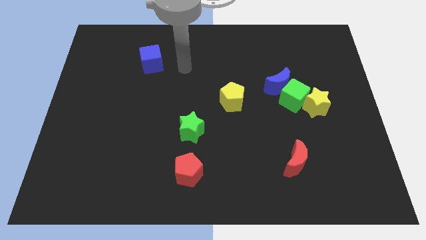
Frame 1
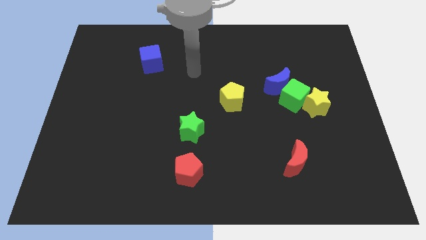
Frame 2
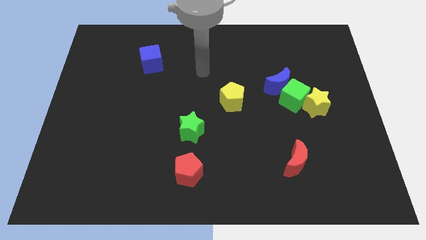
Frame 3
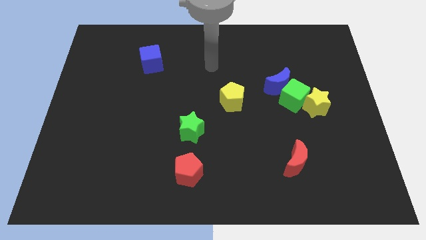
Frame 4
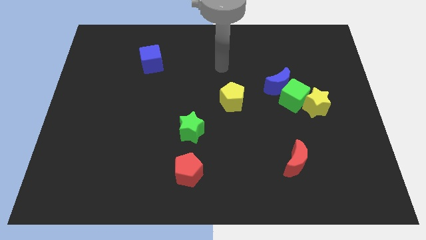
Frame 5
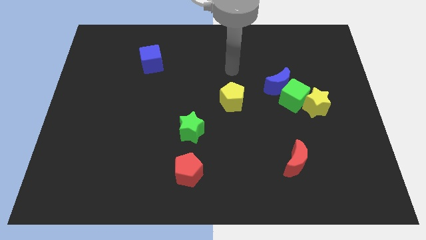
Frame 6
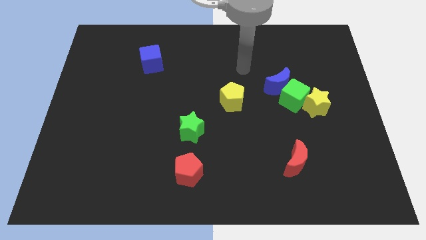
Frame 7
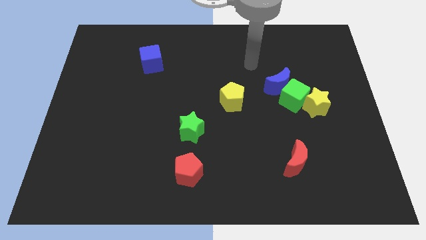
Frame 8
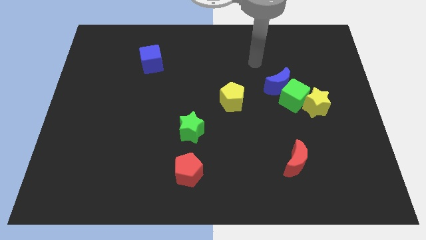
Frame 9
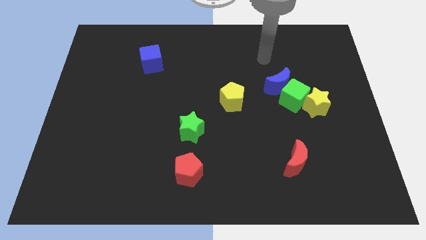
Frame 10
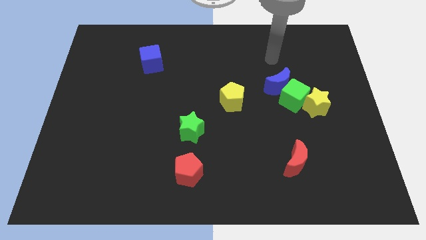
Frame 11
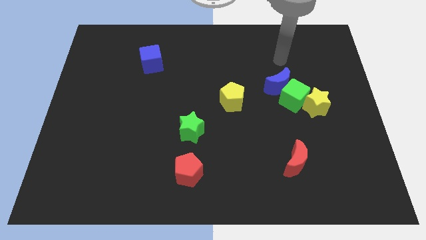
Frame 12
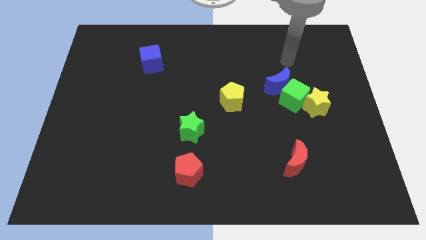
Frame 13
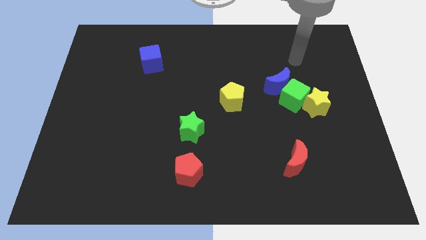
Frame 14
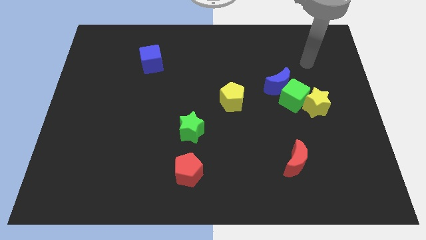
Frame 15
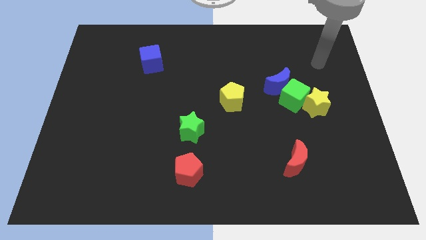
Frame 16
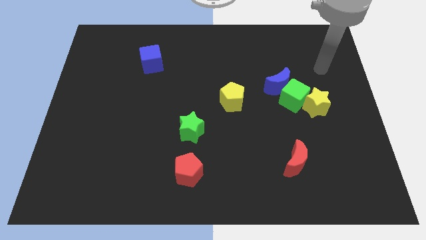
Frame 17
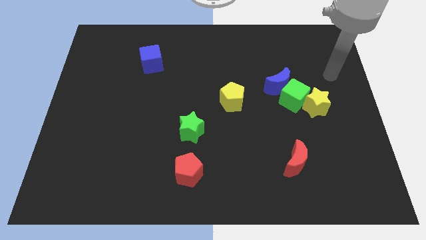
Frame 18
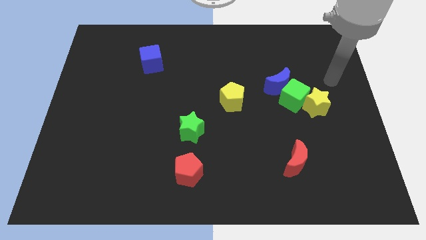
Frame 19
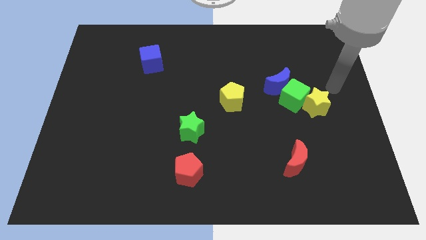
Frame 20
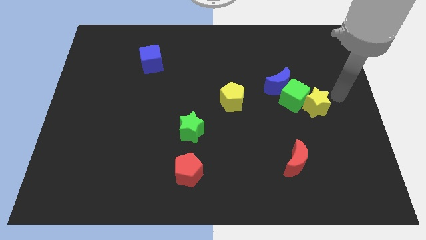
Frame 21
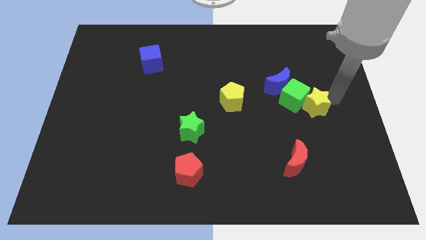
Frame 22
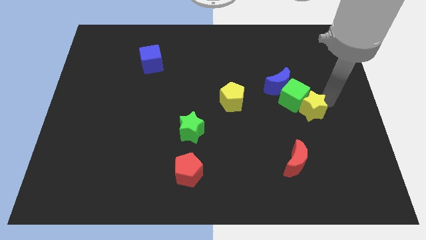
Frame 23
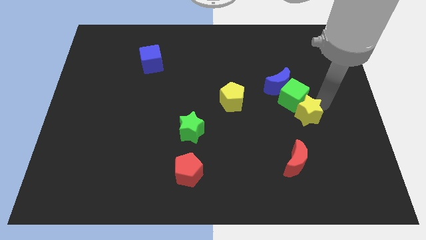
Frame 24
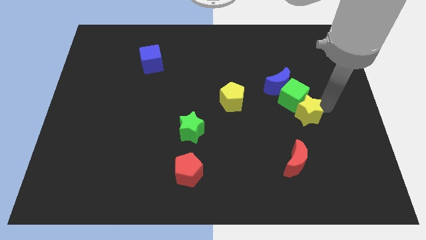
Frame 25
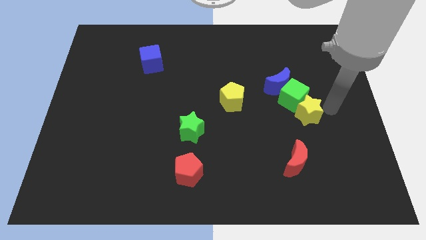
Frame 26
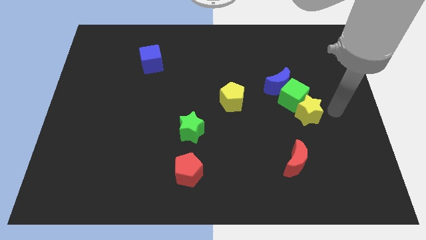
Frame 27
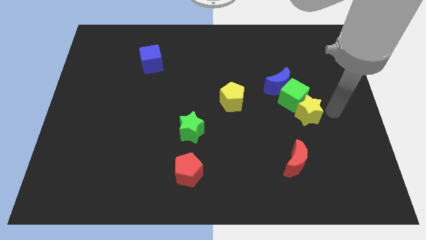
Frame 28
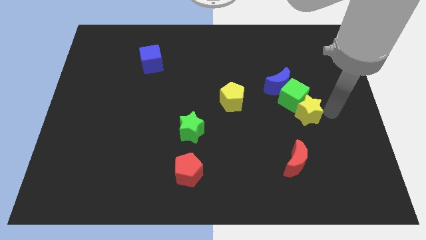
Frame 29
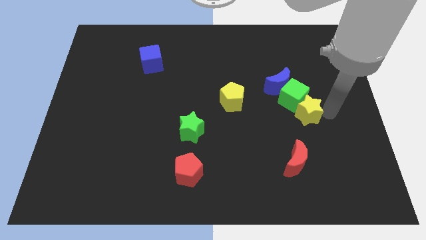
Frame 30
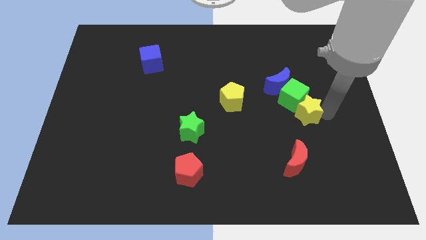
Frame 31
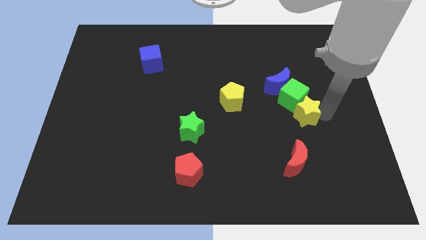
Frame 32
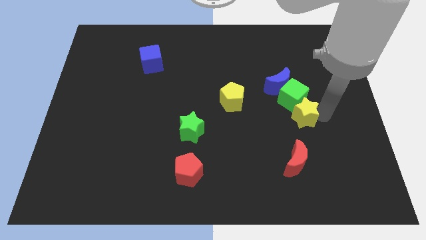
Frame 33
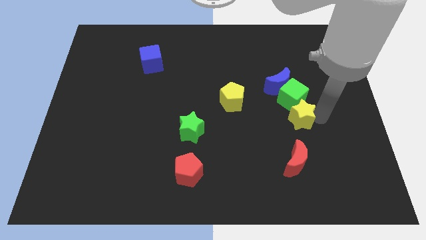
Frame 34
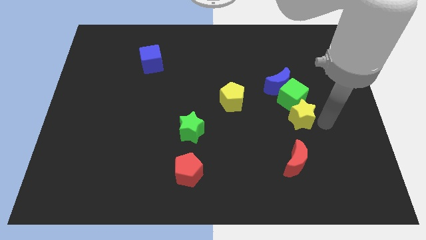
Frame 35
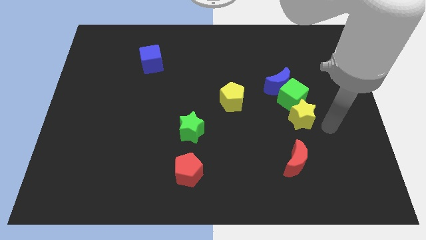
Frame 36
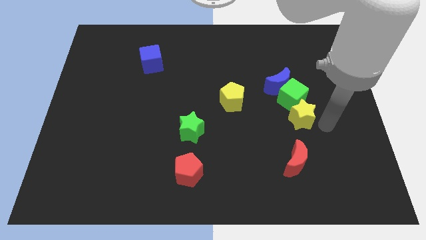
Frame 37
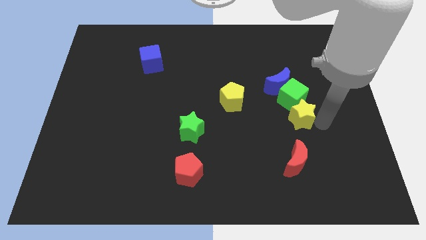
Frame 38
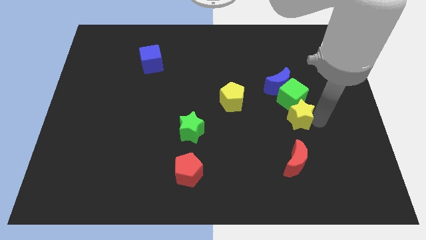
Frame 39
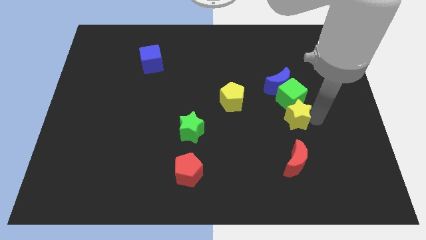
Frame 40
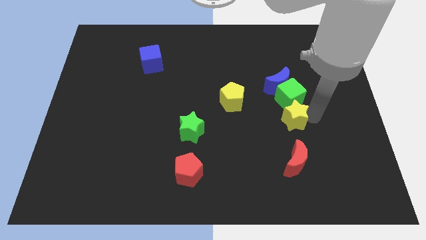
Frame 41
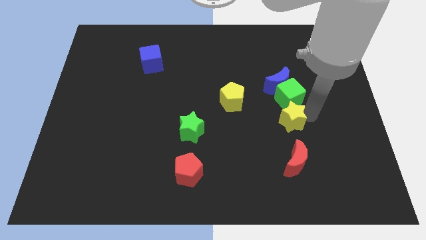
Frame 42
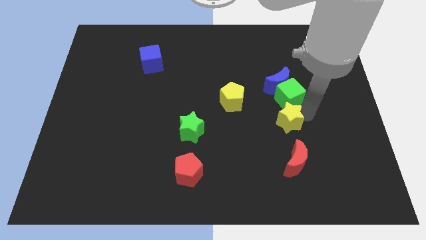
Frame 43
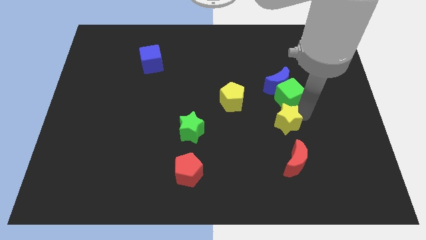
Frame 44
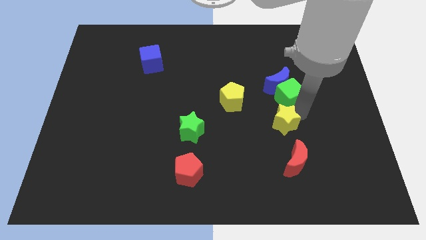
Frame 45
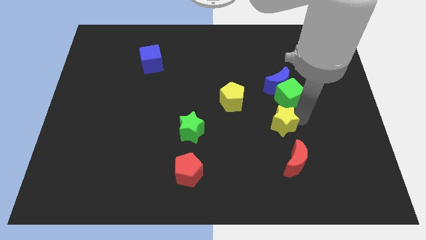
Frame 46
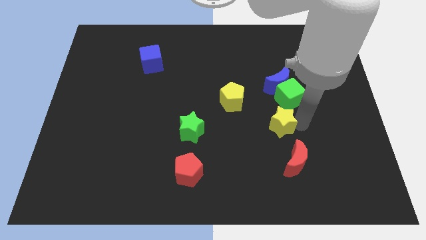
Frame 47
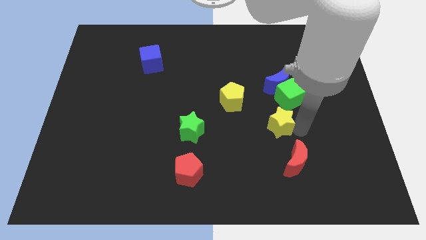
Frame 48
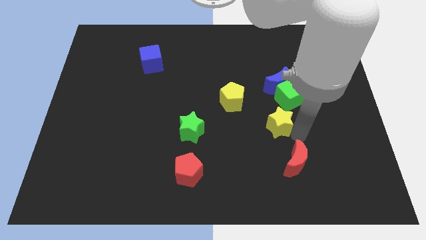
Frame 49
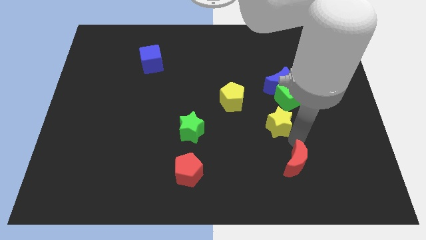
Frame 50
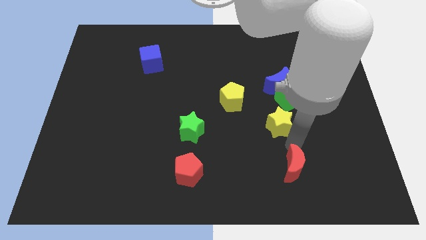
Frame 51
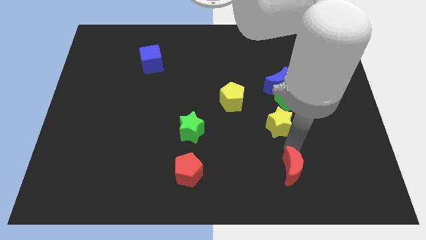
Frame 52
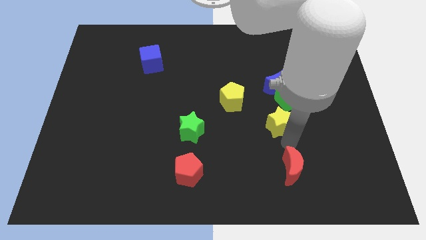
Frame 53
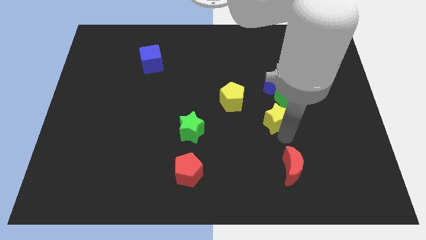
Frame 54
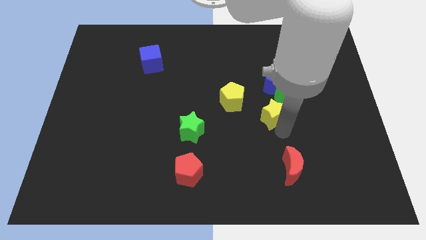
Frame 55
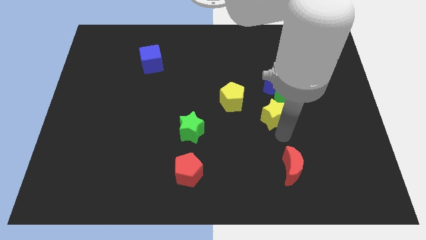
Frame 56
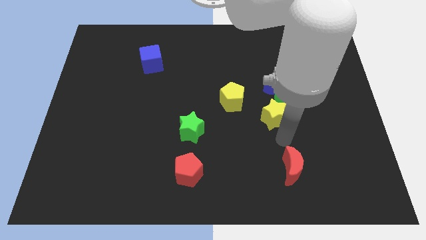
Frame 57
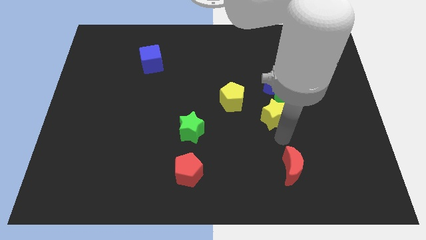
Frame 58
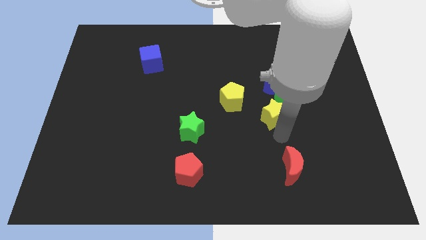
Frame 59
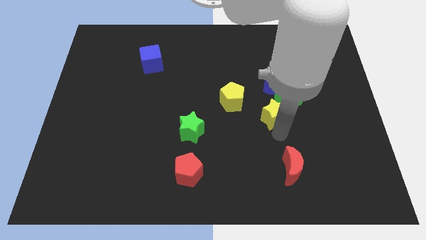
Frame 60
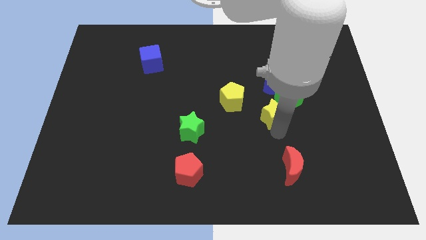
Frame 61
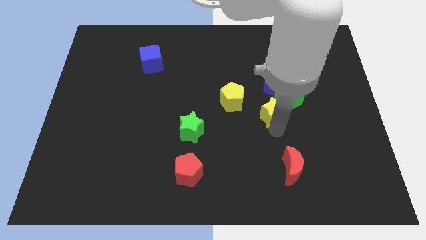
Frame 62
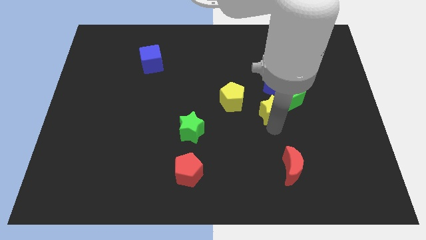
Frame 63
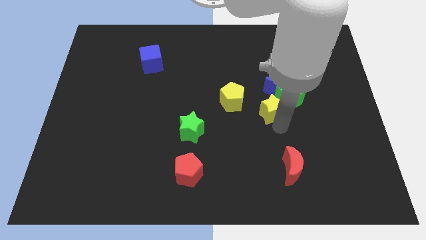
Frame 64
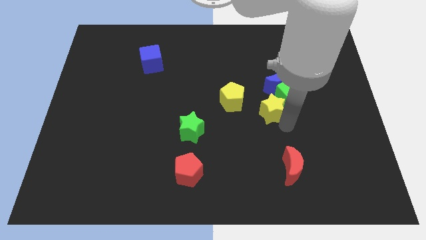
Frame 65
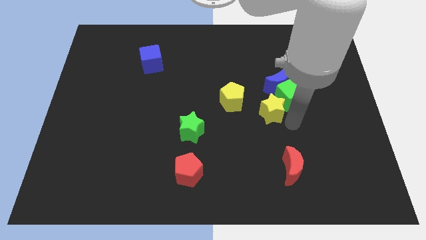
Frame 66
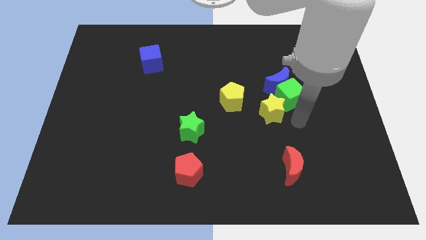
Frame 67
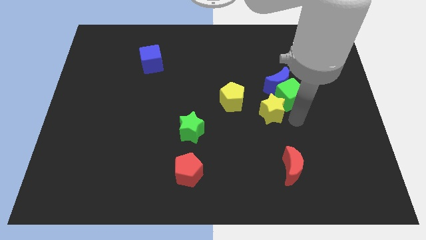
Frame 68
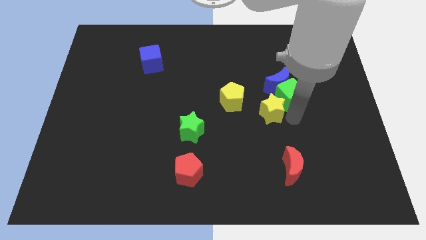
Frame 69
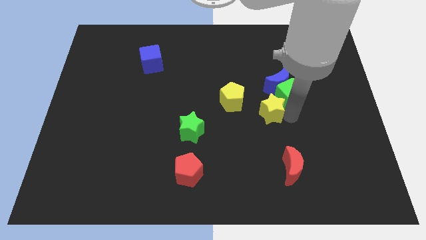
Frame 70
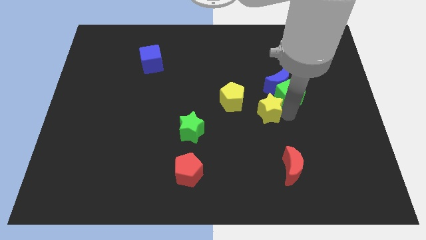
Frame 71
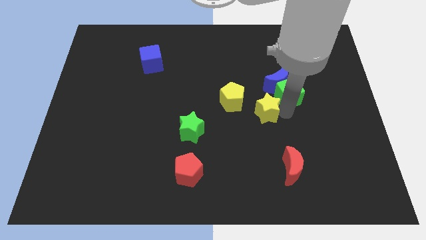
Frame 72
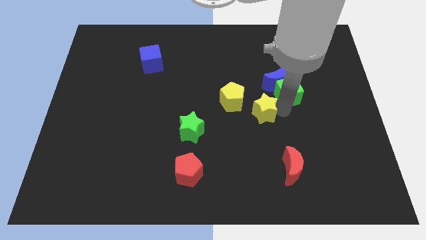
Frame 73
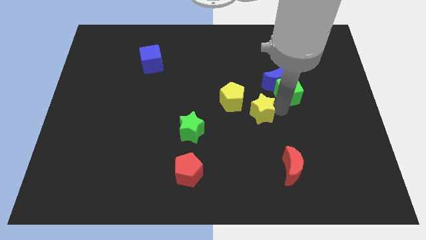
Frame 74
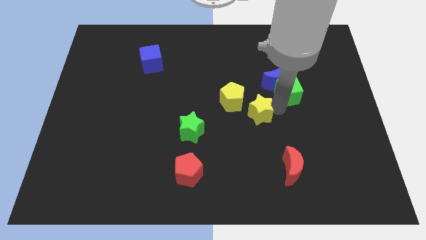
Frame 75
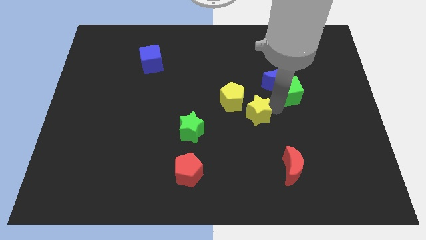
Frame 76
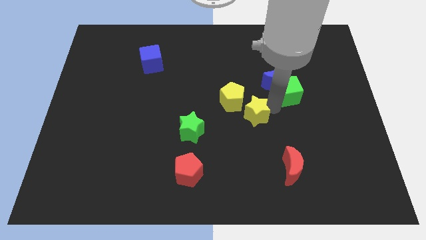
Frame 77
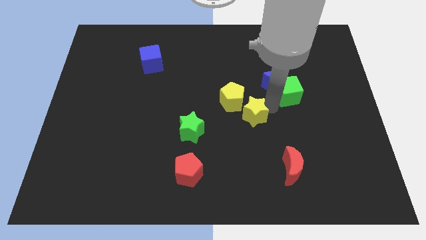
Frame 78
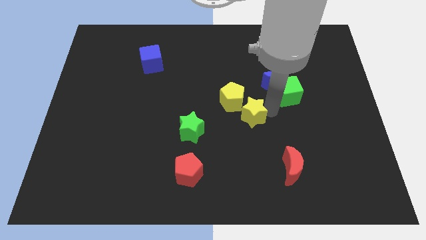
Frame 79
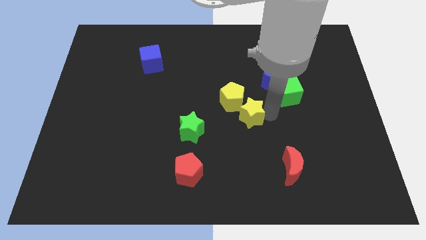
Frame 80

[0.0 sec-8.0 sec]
put the yellow star close to the yellow pentagon
